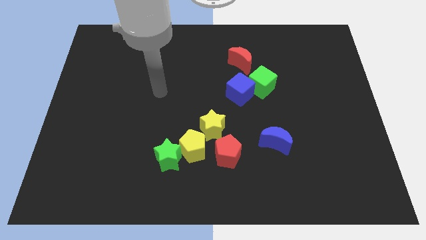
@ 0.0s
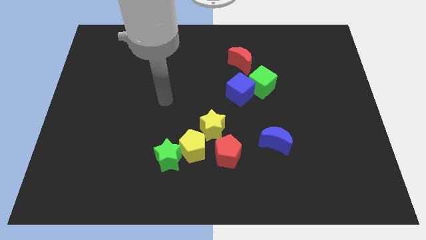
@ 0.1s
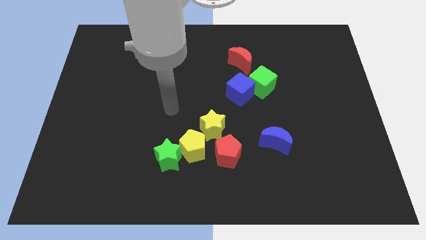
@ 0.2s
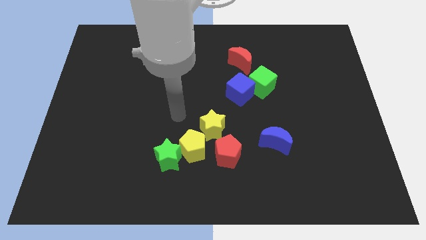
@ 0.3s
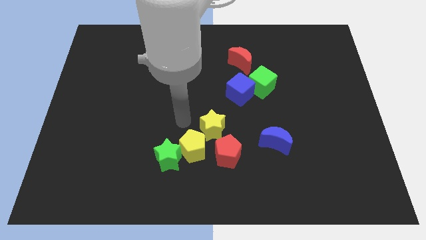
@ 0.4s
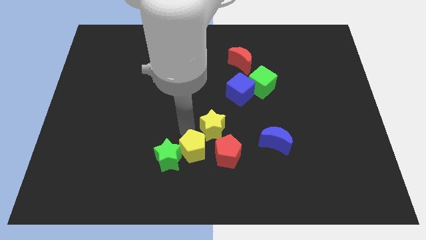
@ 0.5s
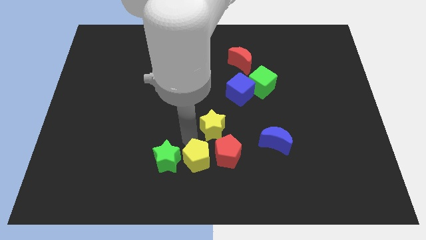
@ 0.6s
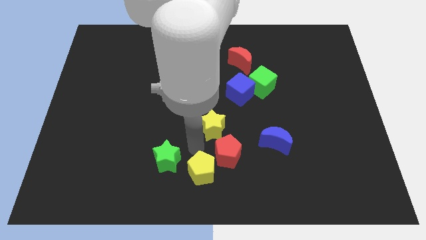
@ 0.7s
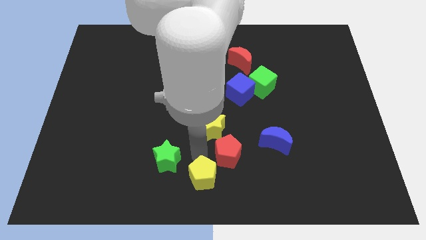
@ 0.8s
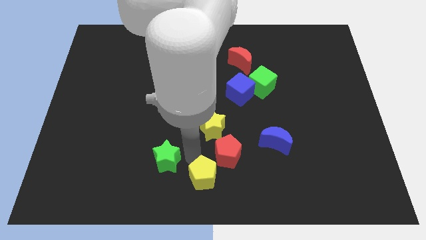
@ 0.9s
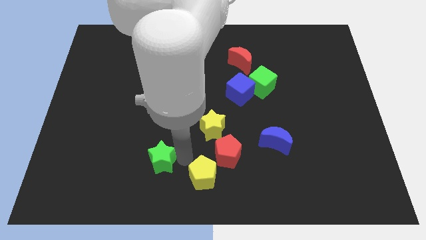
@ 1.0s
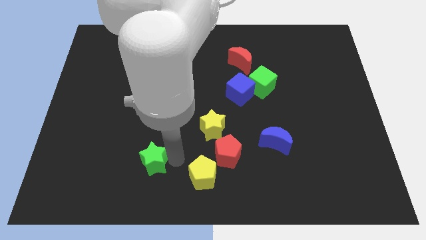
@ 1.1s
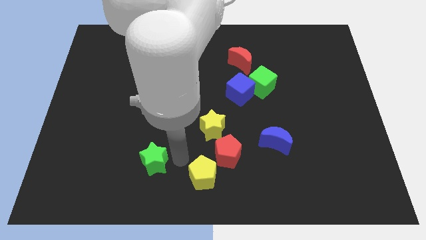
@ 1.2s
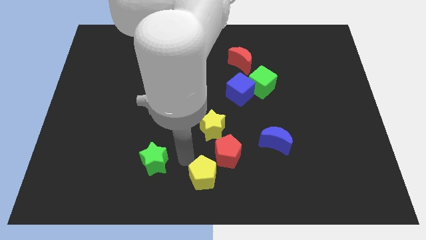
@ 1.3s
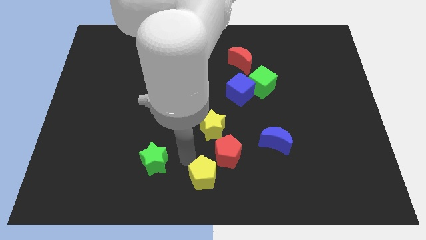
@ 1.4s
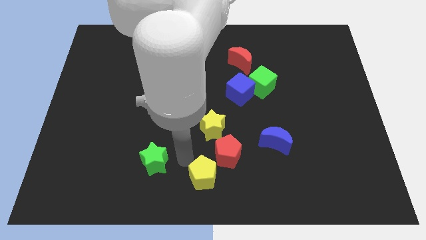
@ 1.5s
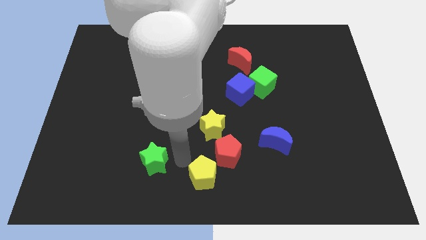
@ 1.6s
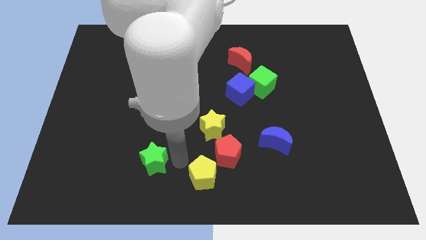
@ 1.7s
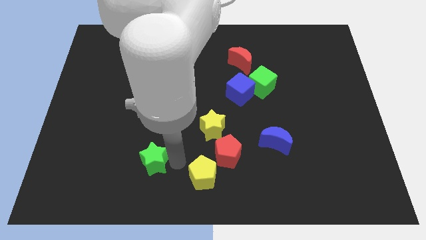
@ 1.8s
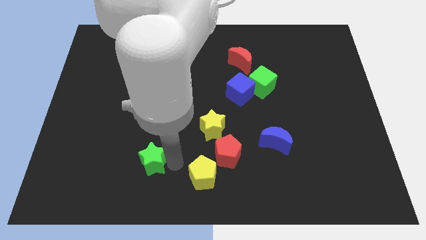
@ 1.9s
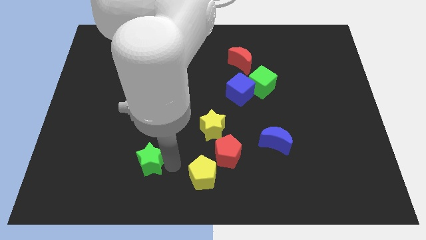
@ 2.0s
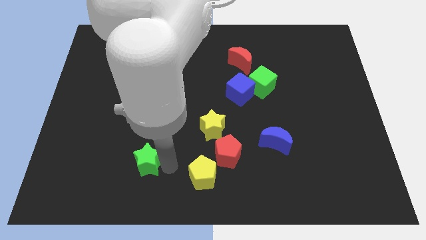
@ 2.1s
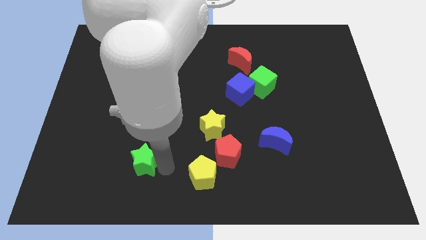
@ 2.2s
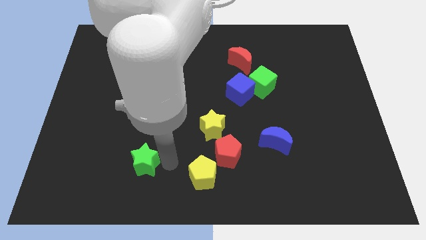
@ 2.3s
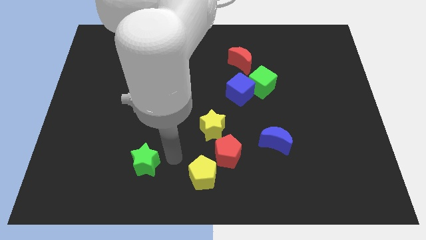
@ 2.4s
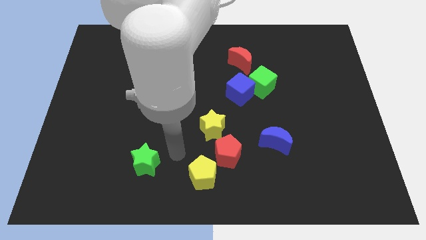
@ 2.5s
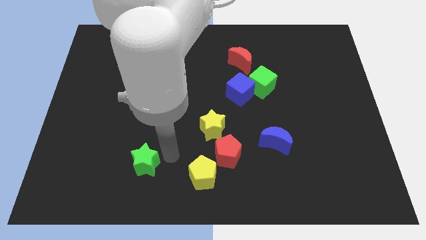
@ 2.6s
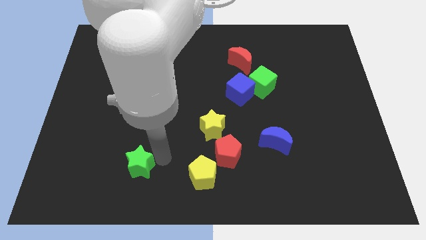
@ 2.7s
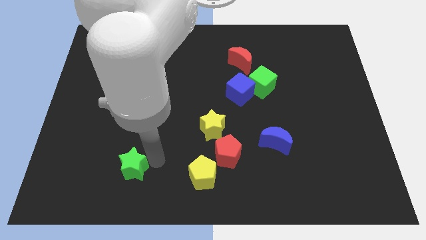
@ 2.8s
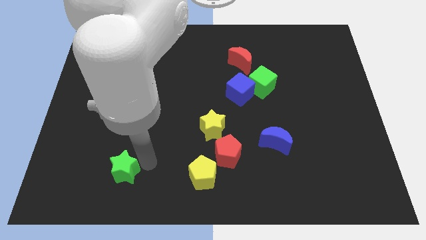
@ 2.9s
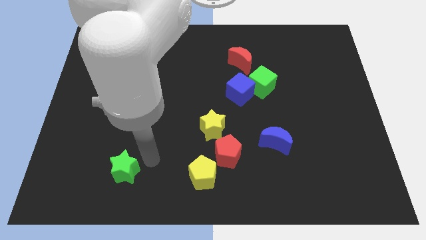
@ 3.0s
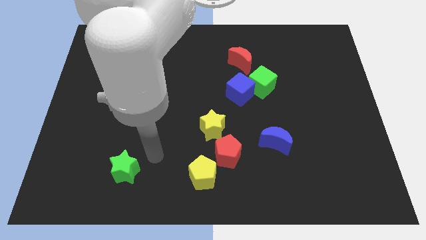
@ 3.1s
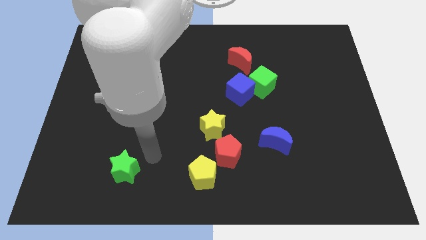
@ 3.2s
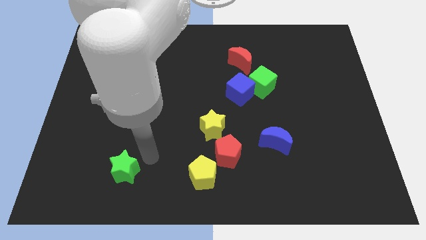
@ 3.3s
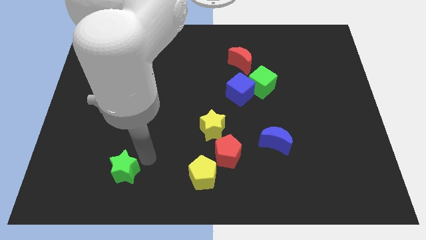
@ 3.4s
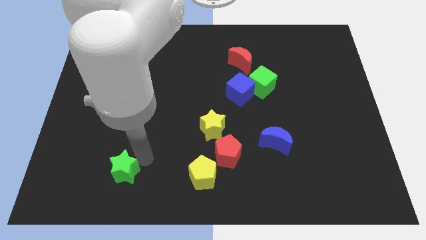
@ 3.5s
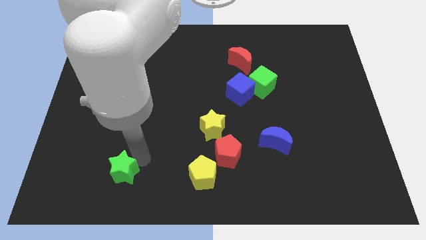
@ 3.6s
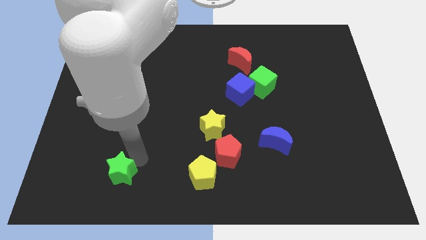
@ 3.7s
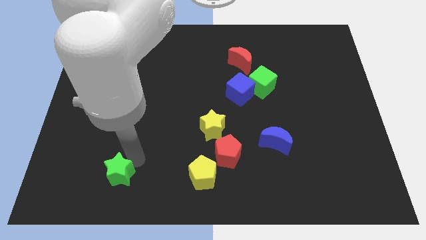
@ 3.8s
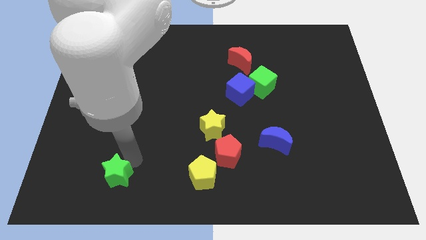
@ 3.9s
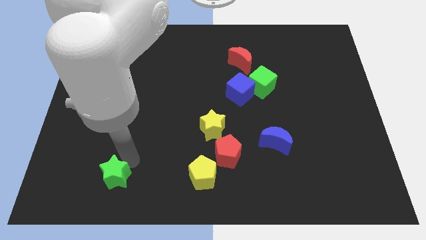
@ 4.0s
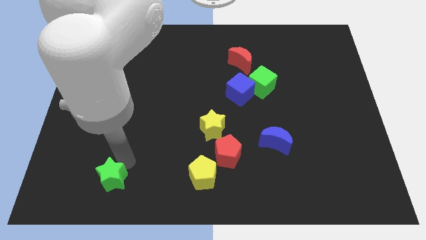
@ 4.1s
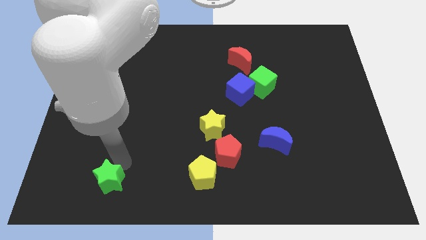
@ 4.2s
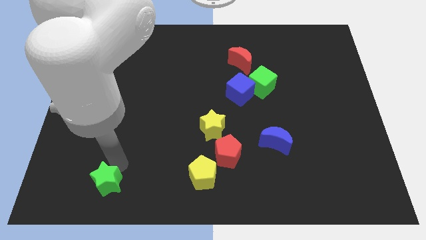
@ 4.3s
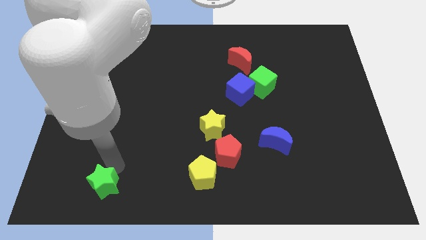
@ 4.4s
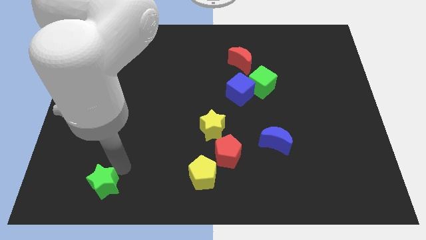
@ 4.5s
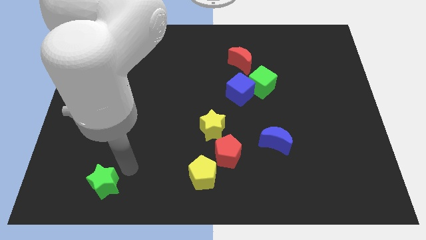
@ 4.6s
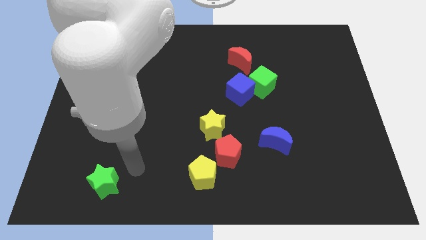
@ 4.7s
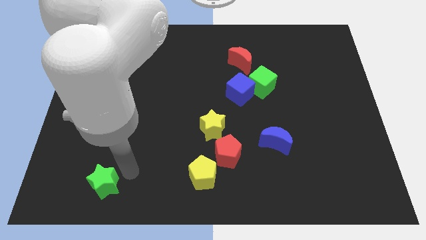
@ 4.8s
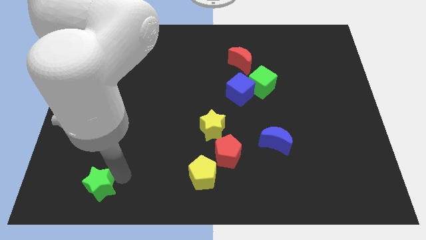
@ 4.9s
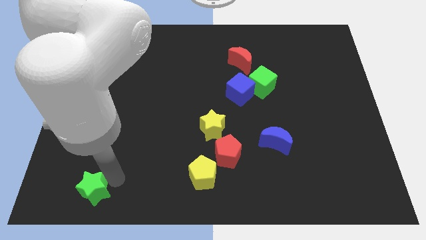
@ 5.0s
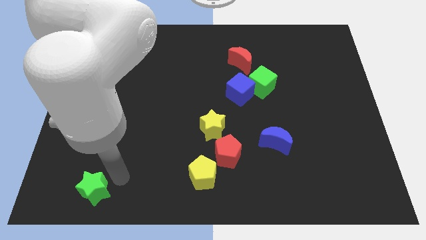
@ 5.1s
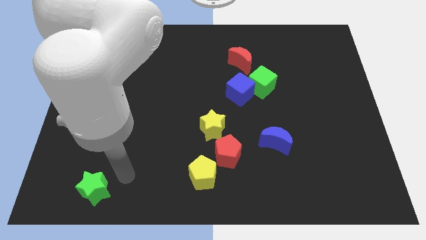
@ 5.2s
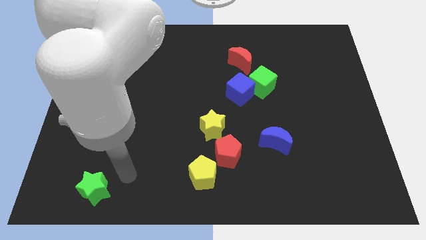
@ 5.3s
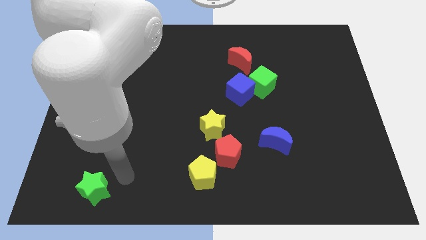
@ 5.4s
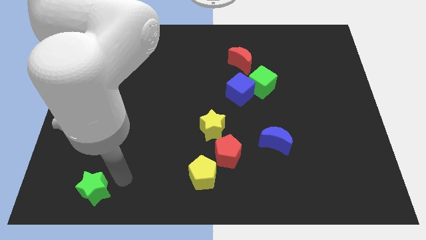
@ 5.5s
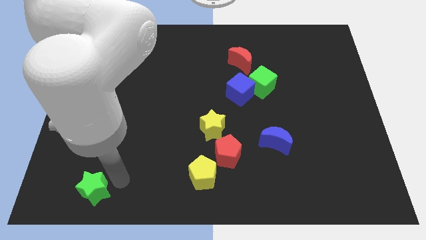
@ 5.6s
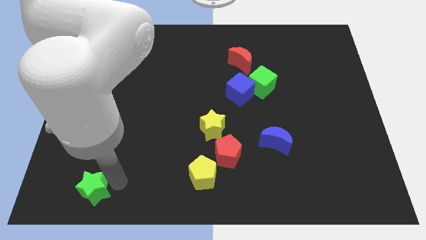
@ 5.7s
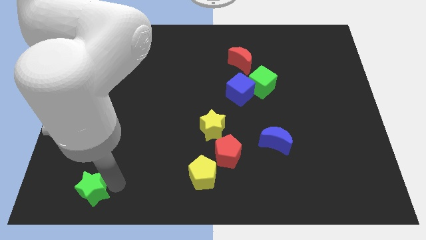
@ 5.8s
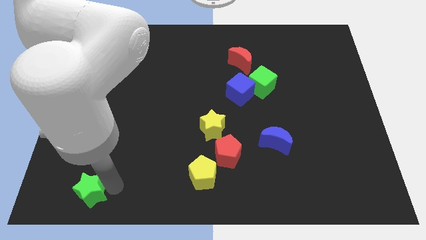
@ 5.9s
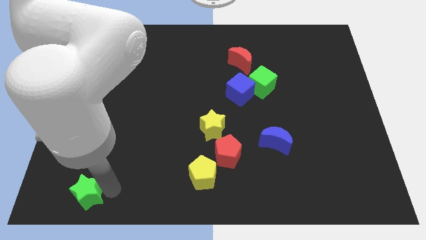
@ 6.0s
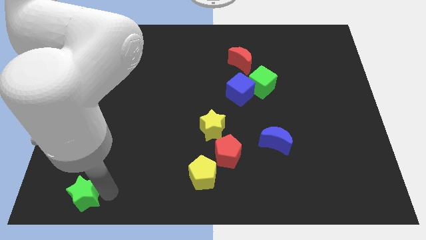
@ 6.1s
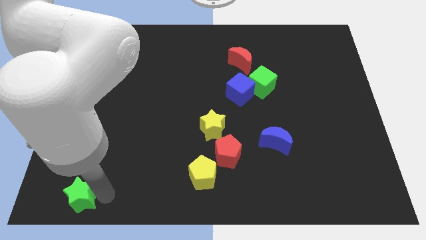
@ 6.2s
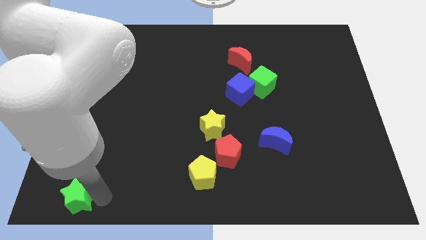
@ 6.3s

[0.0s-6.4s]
move the green star to the bottom left
